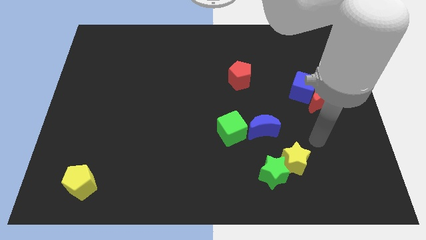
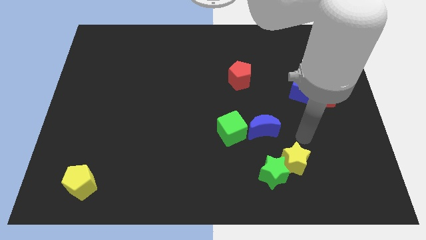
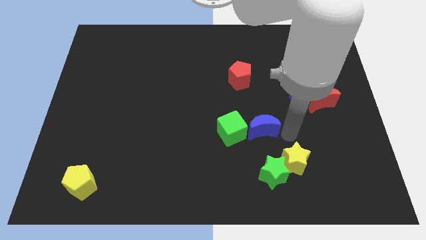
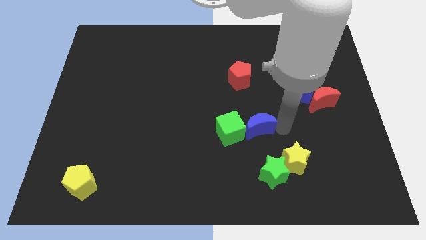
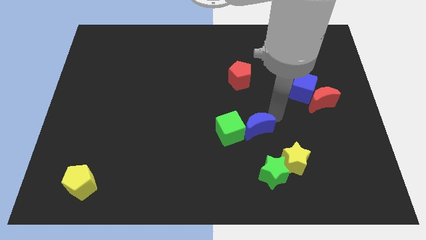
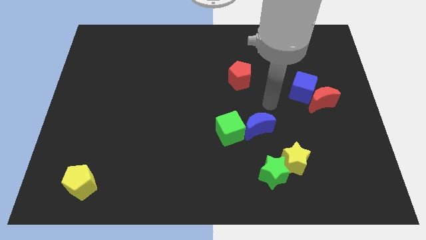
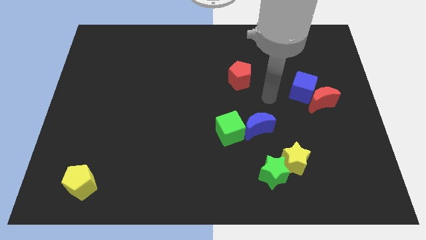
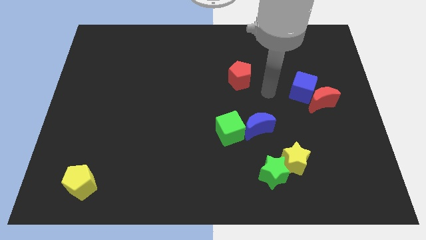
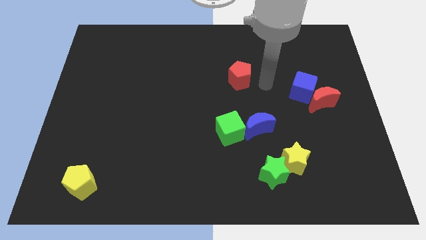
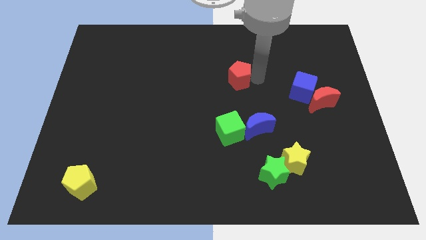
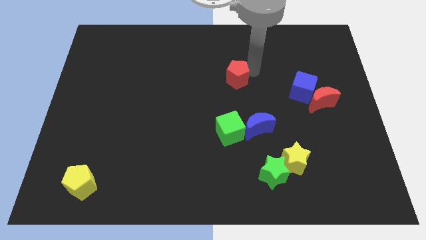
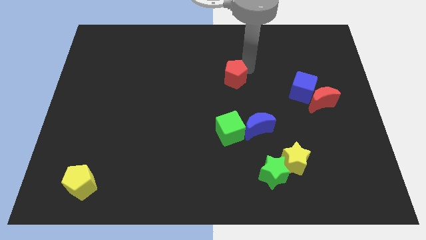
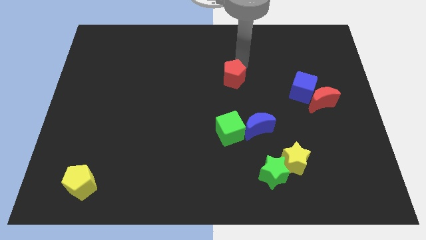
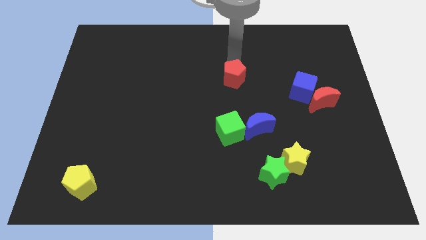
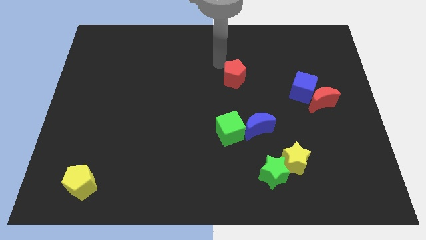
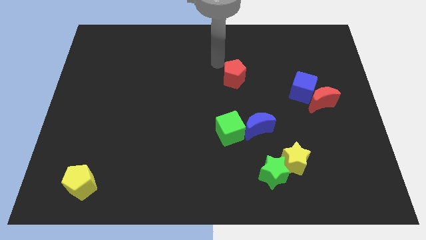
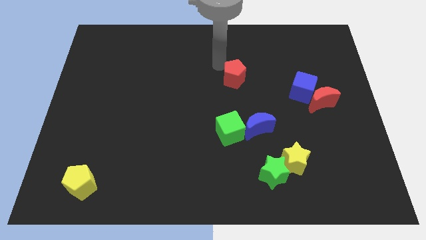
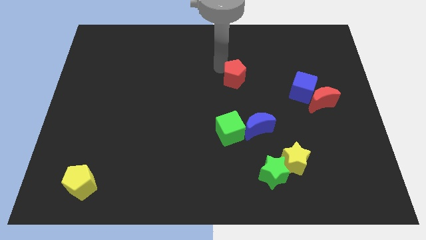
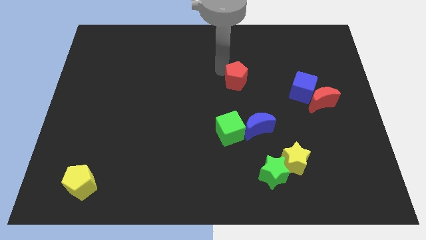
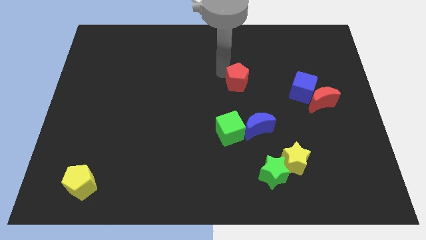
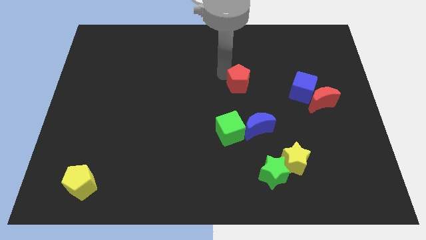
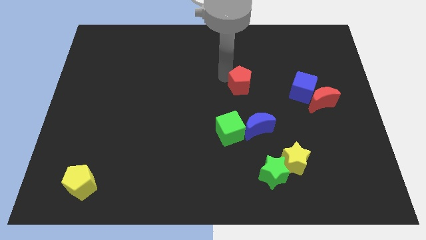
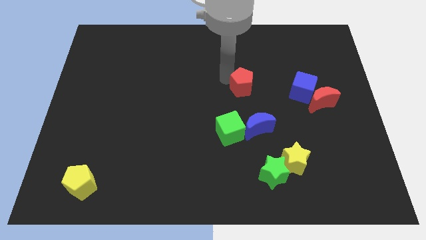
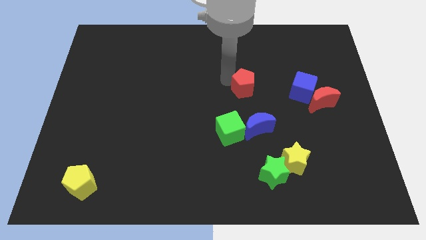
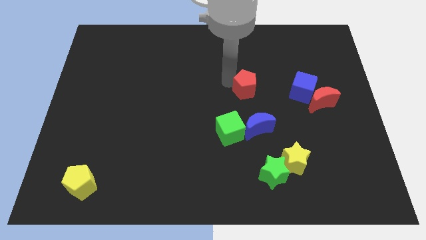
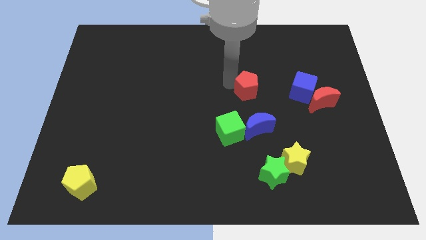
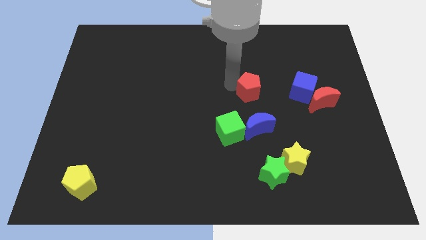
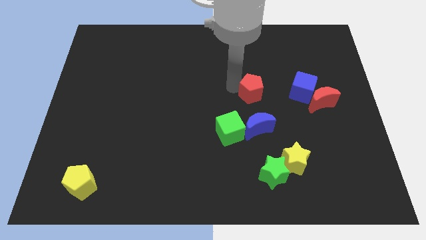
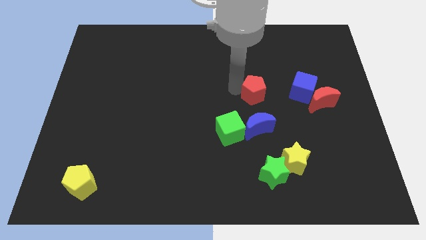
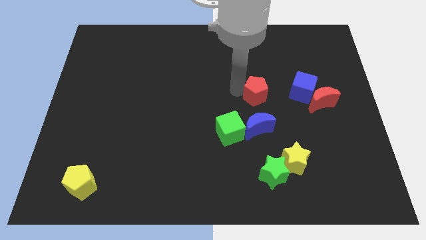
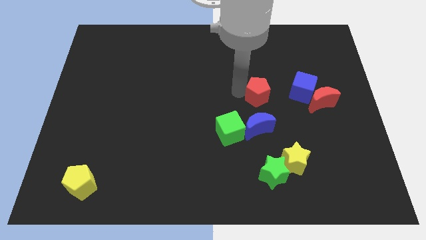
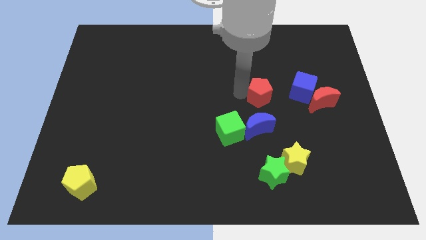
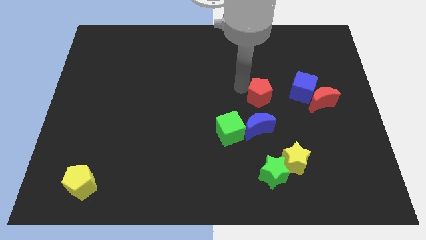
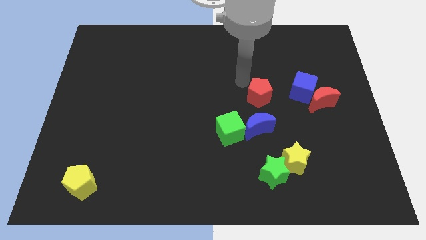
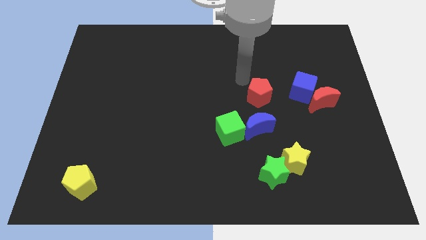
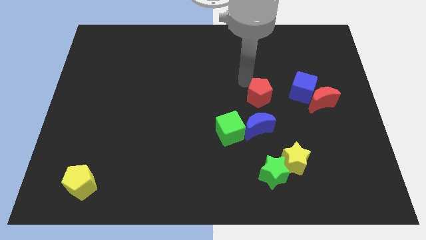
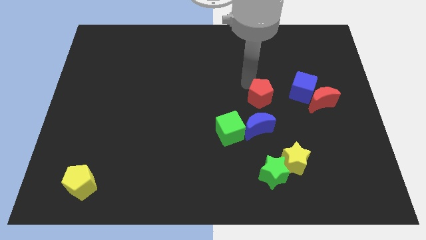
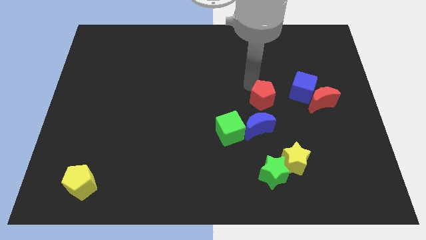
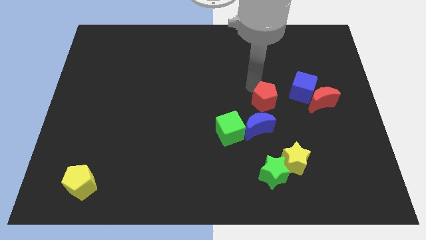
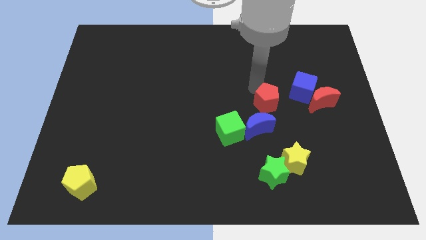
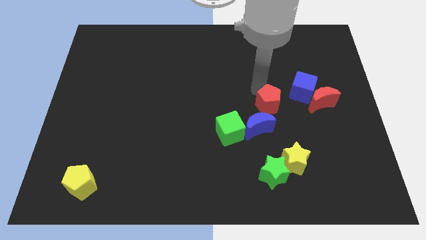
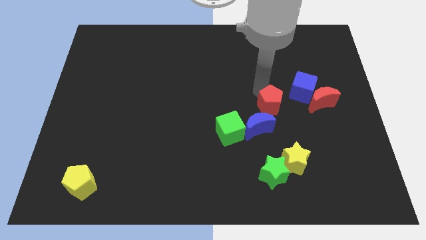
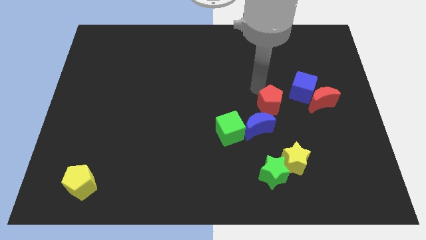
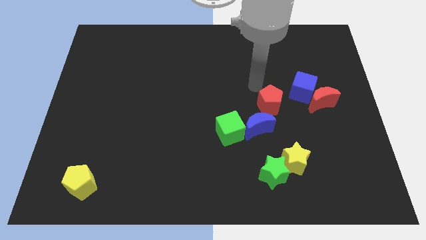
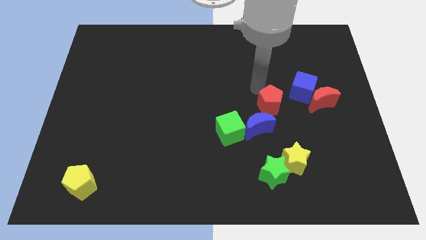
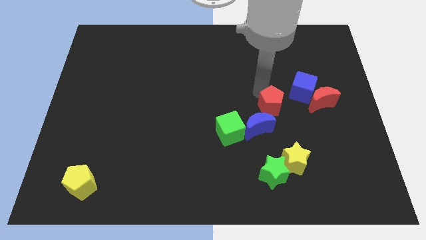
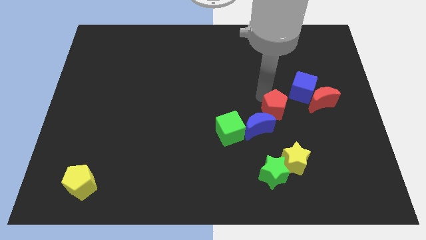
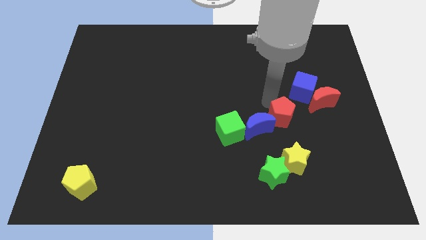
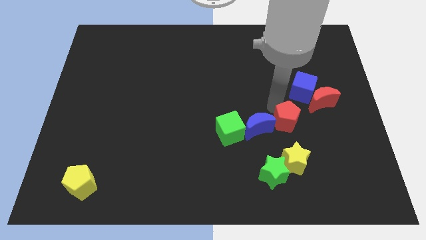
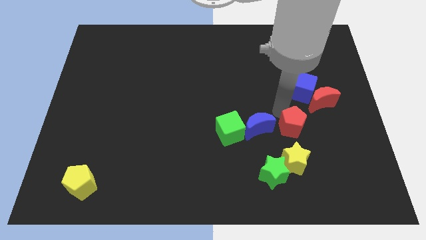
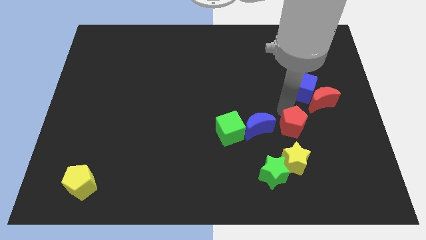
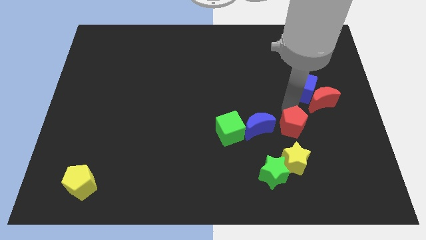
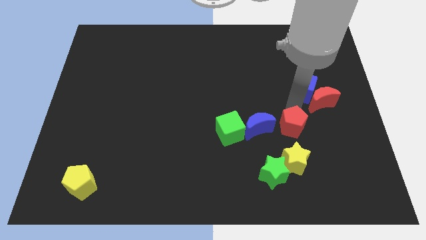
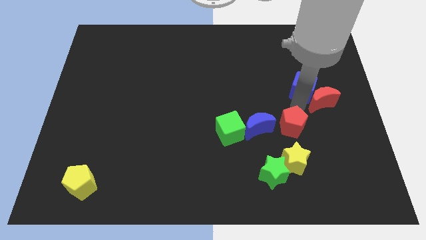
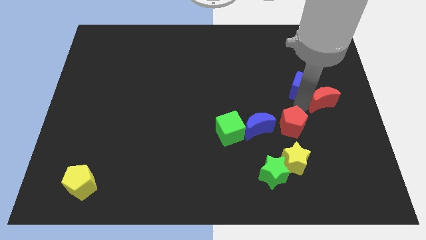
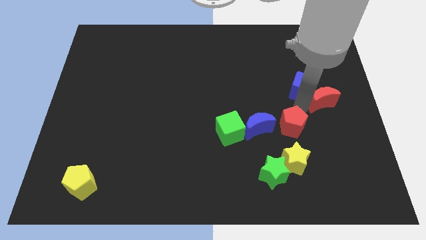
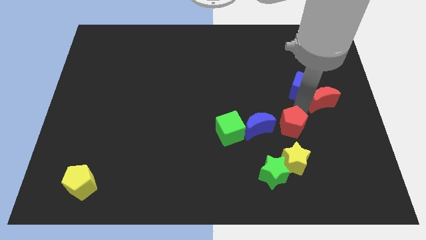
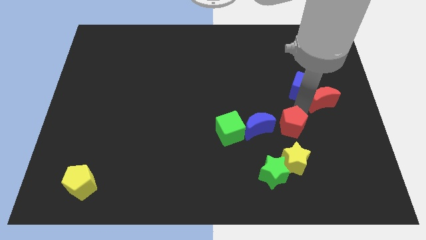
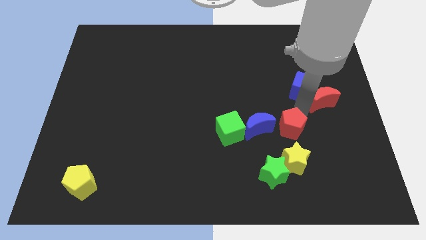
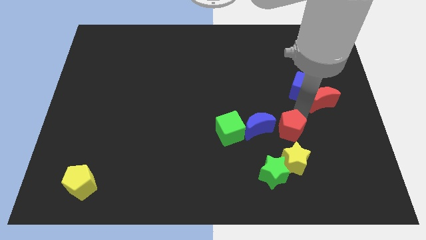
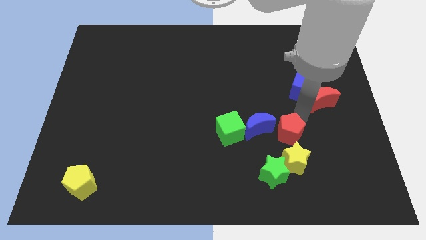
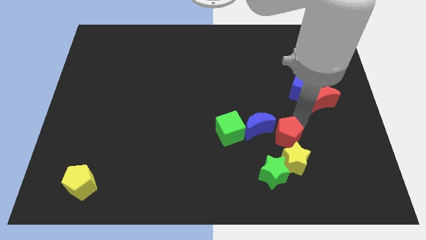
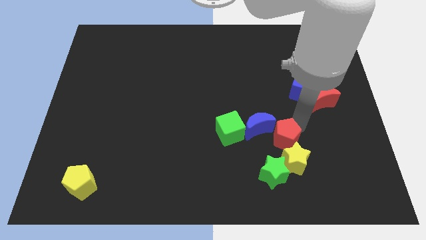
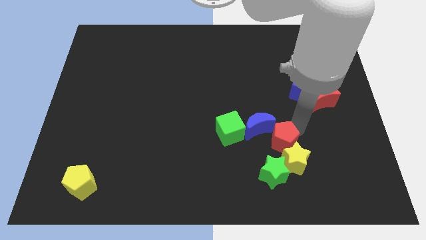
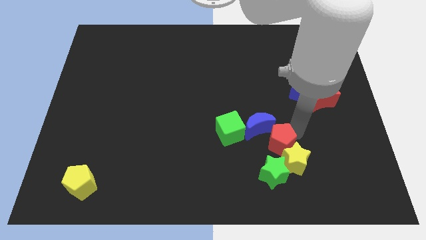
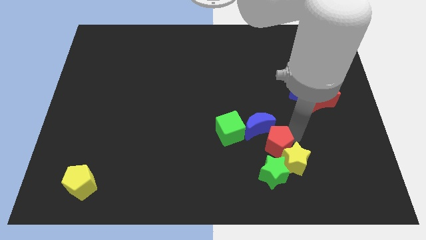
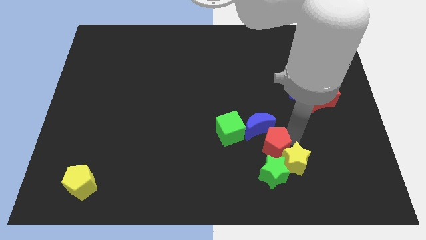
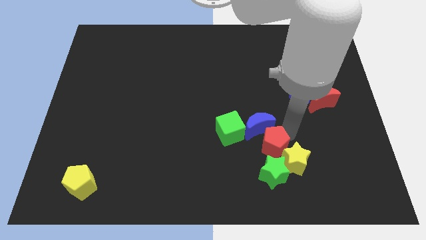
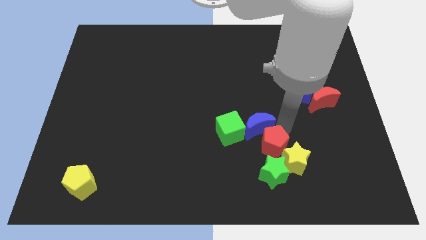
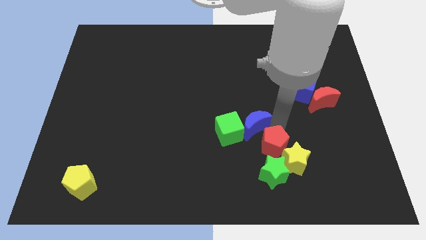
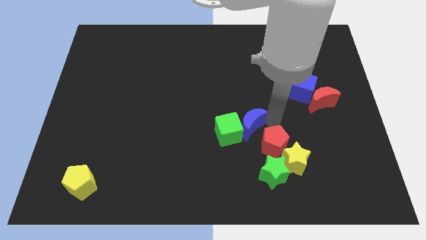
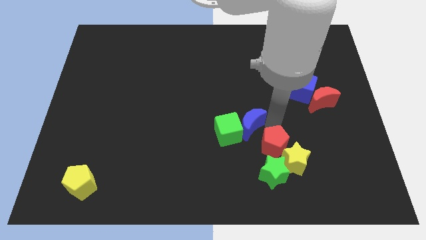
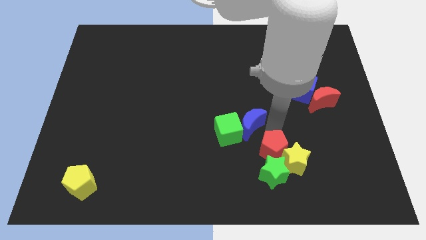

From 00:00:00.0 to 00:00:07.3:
slide the red pentagon next to the green star
